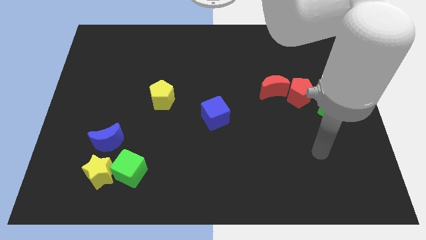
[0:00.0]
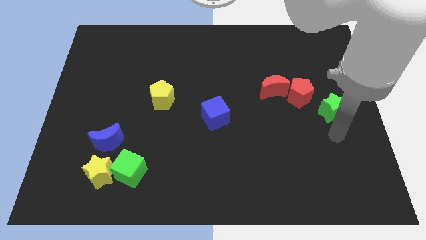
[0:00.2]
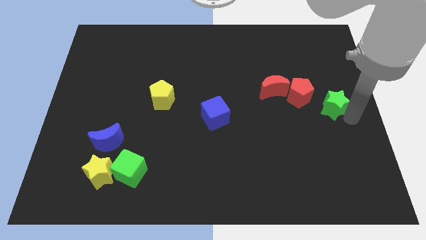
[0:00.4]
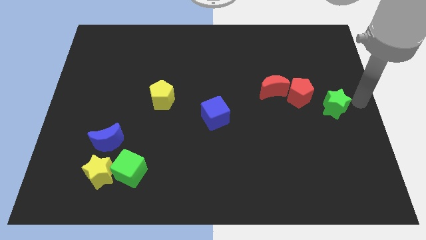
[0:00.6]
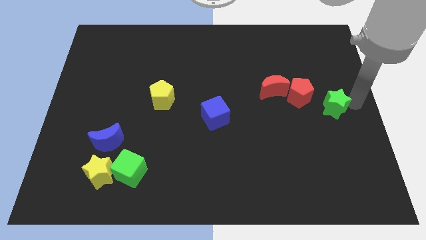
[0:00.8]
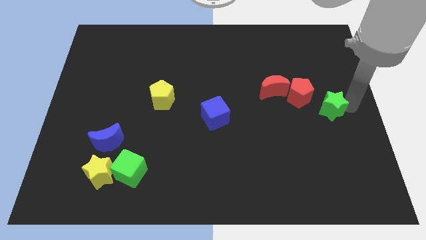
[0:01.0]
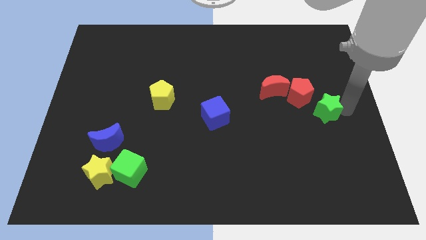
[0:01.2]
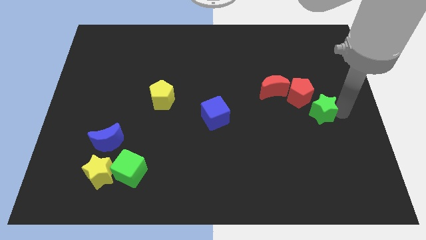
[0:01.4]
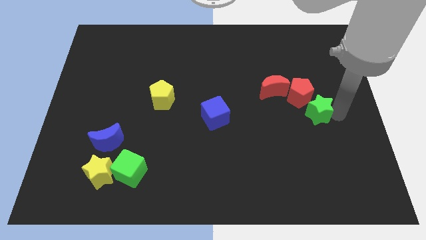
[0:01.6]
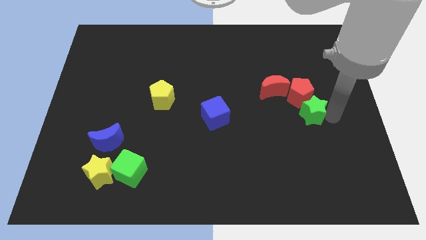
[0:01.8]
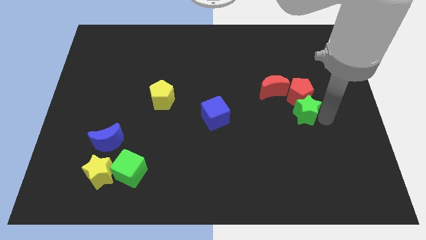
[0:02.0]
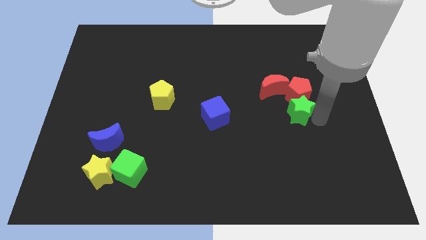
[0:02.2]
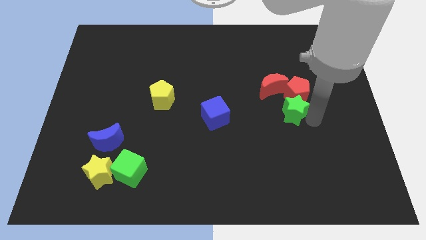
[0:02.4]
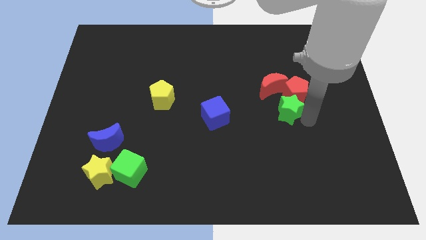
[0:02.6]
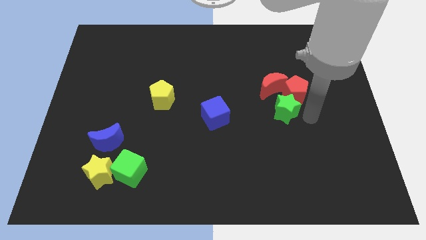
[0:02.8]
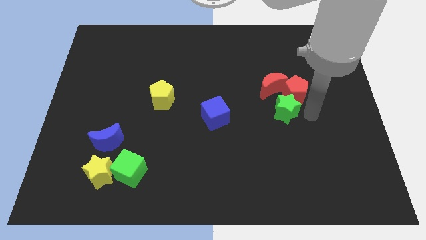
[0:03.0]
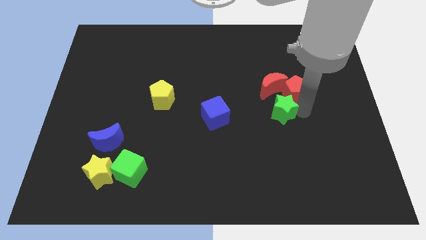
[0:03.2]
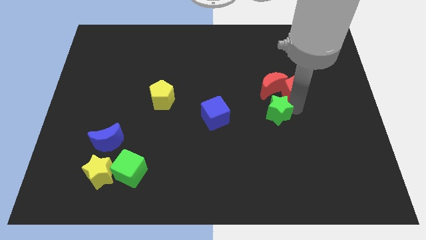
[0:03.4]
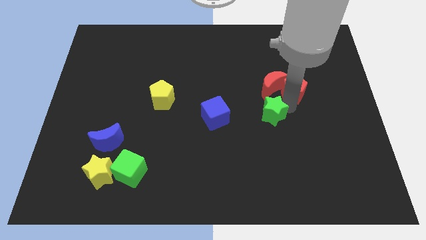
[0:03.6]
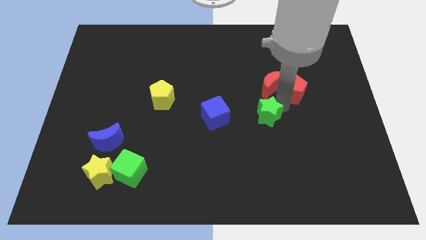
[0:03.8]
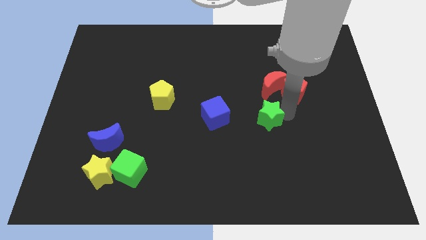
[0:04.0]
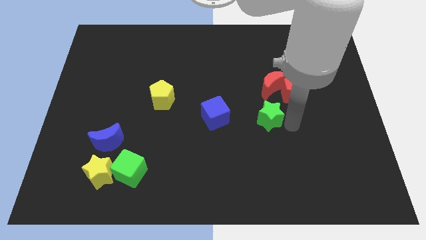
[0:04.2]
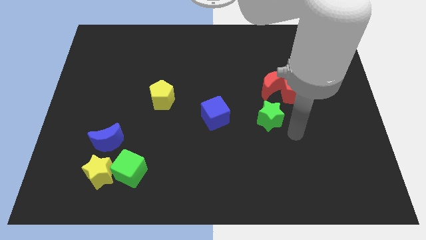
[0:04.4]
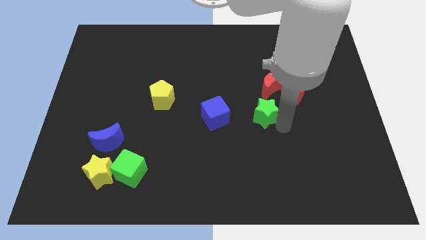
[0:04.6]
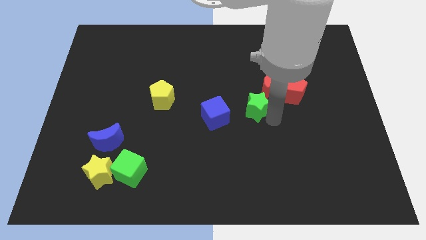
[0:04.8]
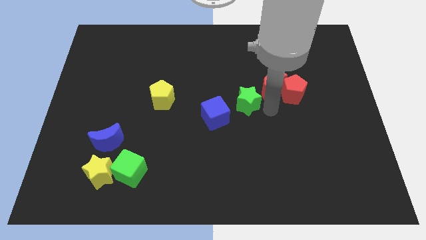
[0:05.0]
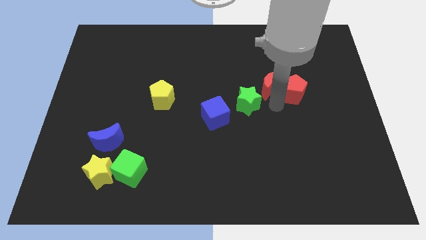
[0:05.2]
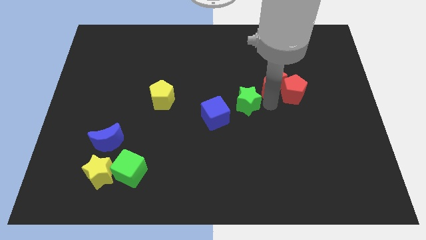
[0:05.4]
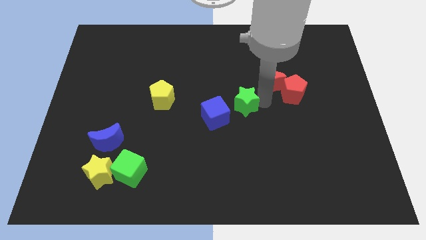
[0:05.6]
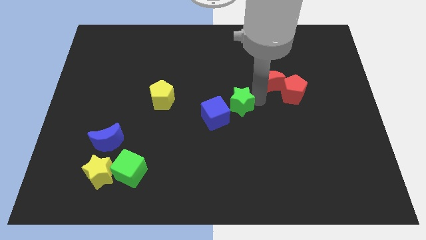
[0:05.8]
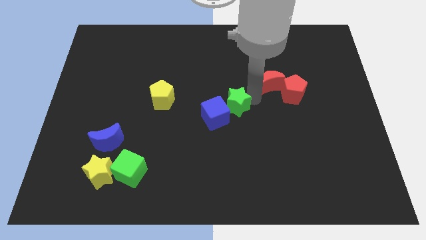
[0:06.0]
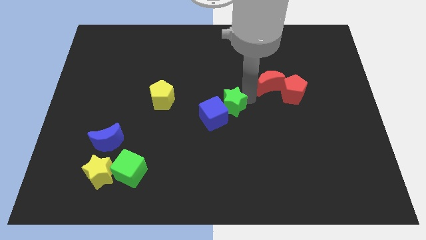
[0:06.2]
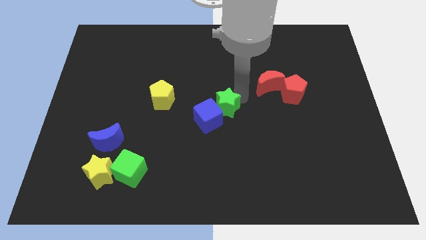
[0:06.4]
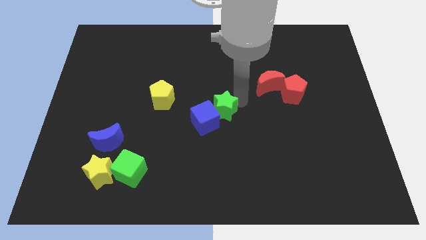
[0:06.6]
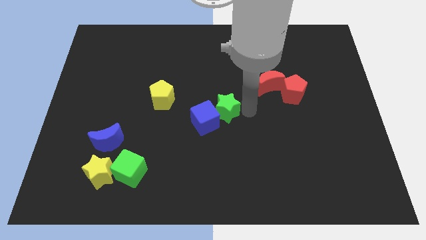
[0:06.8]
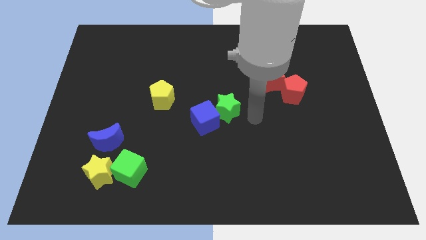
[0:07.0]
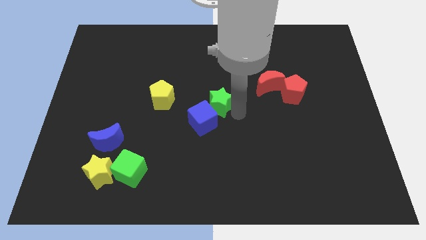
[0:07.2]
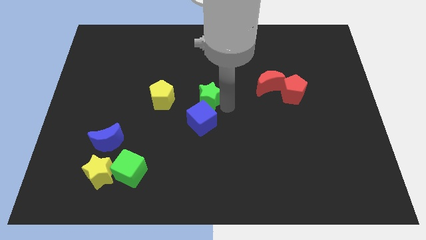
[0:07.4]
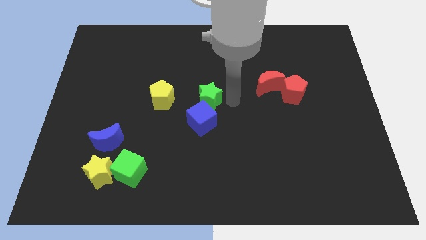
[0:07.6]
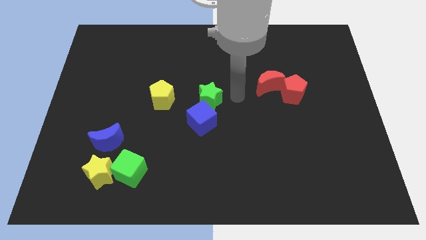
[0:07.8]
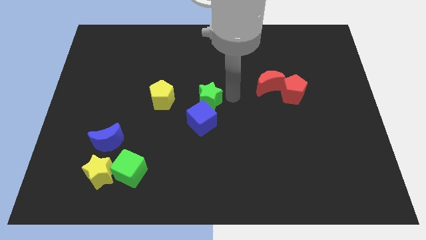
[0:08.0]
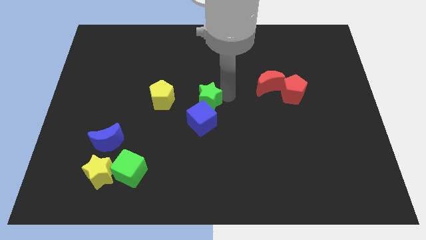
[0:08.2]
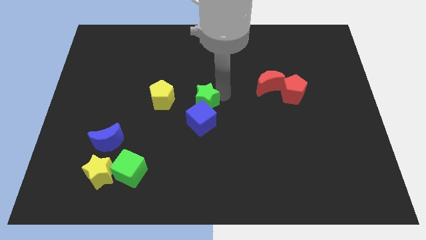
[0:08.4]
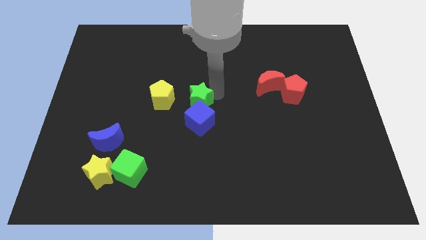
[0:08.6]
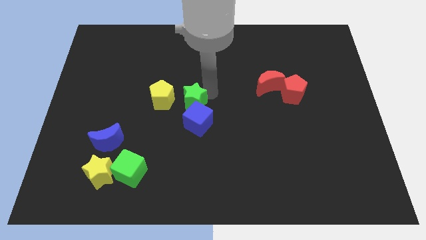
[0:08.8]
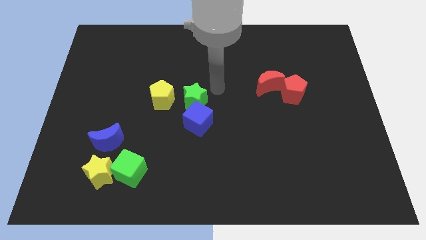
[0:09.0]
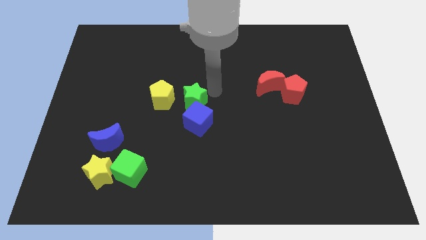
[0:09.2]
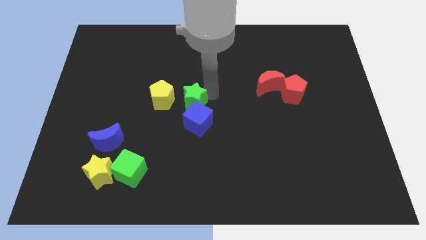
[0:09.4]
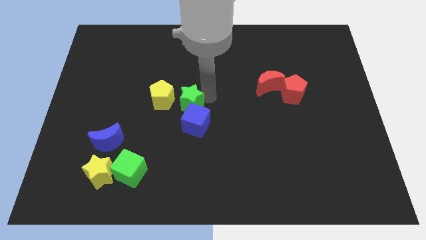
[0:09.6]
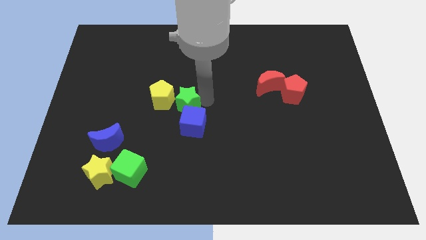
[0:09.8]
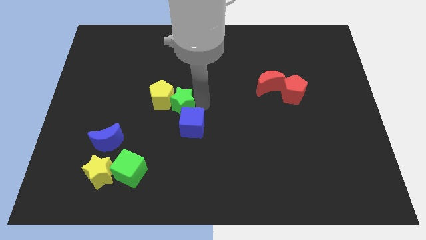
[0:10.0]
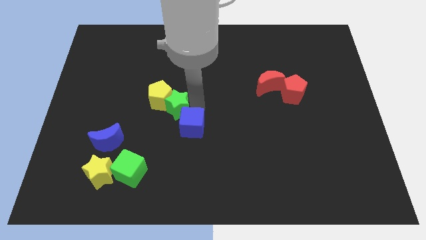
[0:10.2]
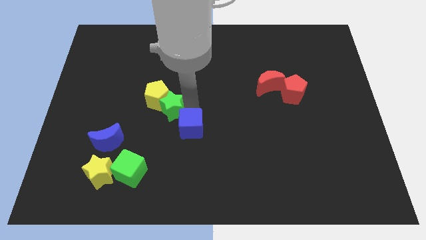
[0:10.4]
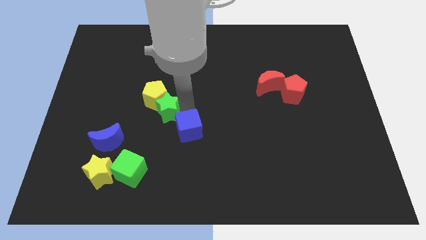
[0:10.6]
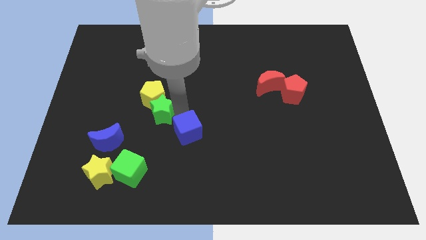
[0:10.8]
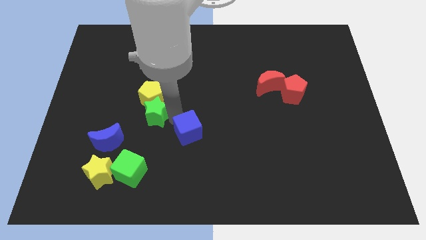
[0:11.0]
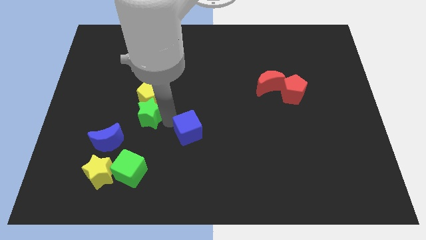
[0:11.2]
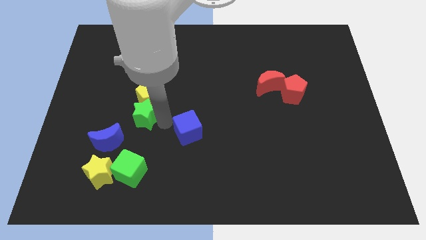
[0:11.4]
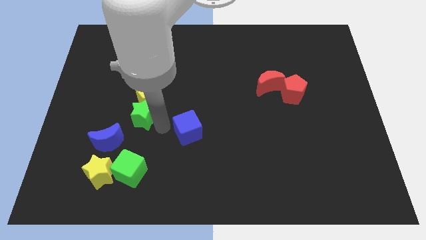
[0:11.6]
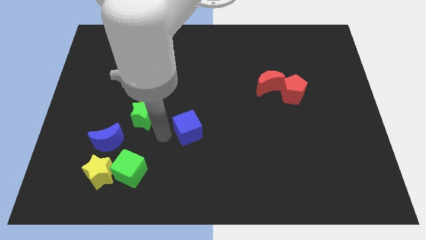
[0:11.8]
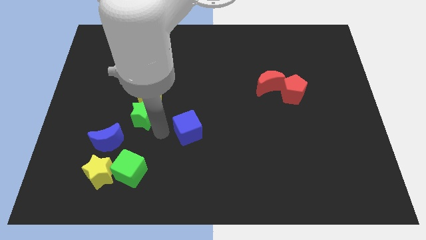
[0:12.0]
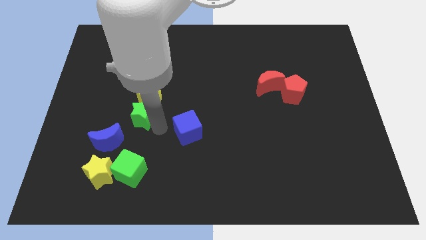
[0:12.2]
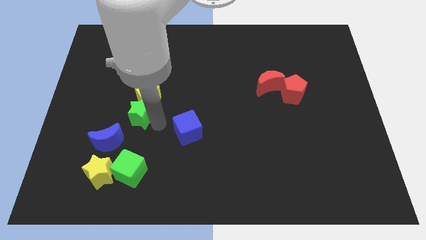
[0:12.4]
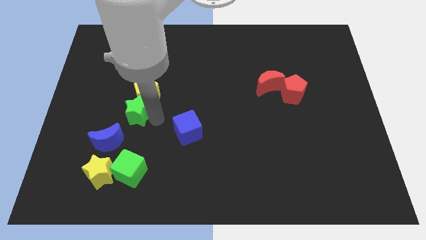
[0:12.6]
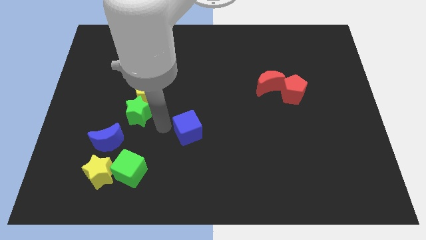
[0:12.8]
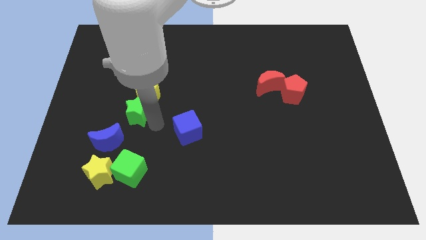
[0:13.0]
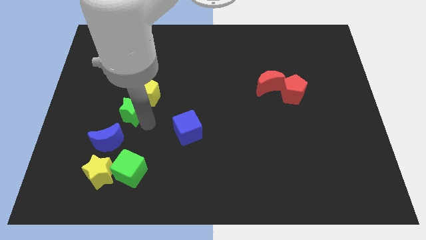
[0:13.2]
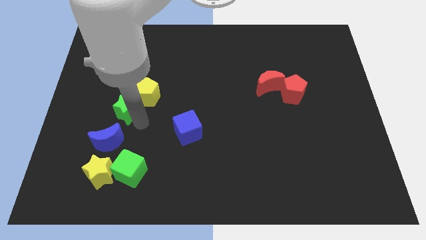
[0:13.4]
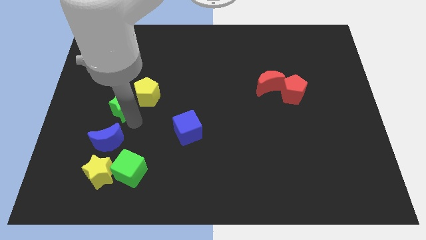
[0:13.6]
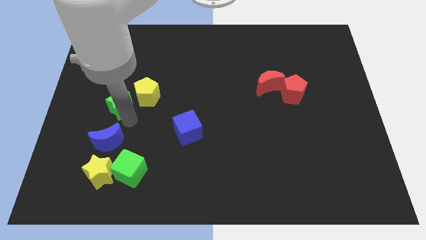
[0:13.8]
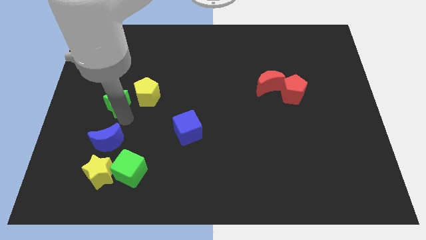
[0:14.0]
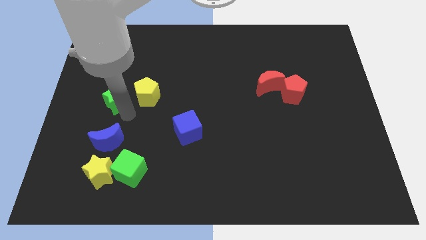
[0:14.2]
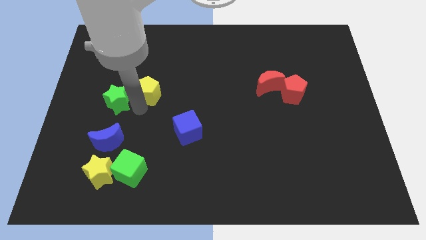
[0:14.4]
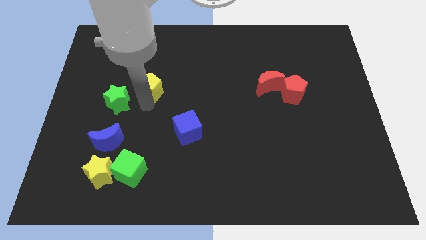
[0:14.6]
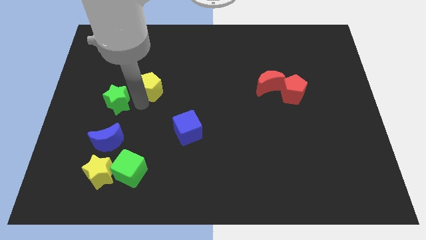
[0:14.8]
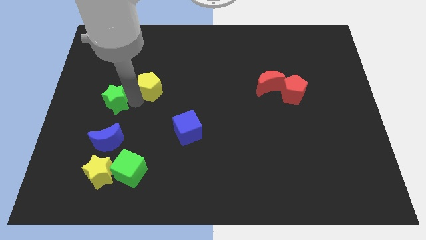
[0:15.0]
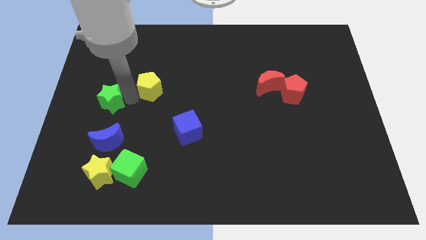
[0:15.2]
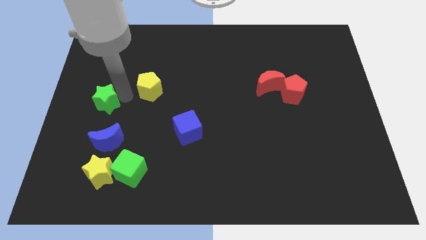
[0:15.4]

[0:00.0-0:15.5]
move the green star to the left side of the board
